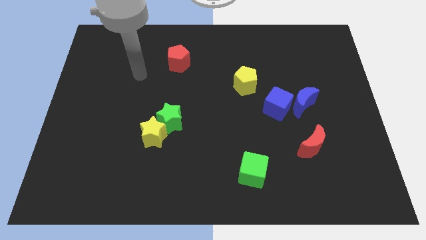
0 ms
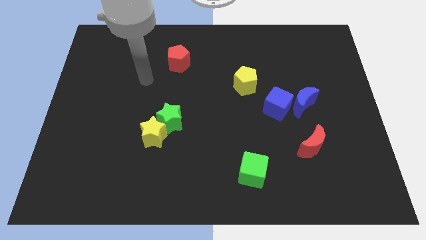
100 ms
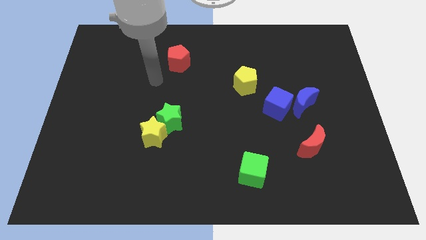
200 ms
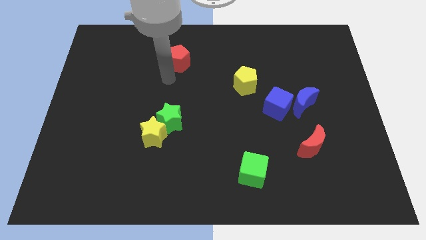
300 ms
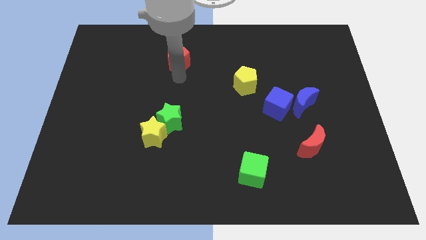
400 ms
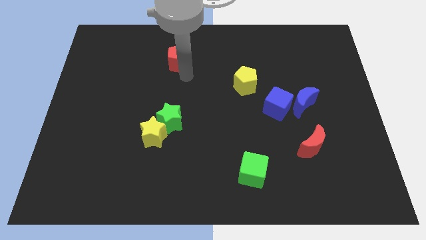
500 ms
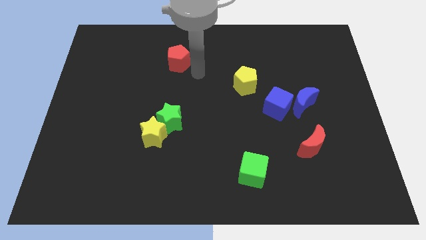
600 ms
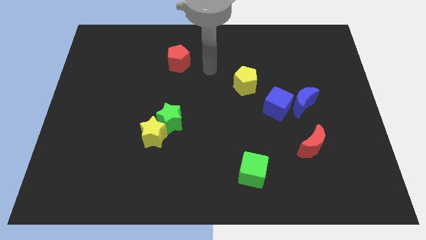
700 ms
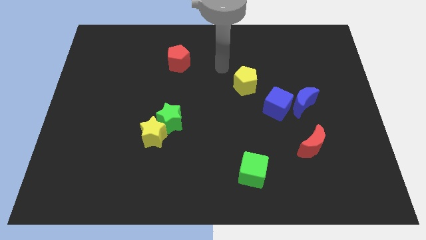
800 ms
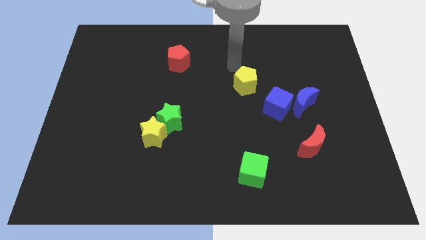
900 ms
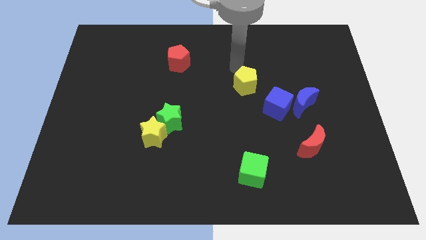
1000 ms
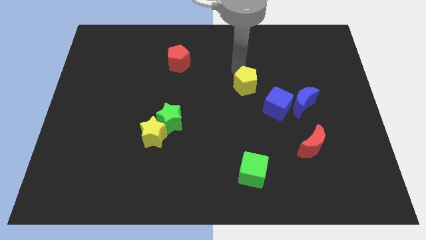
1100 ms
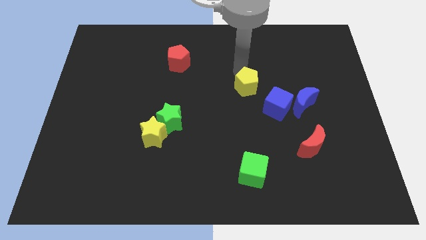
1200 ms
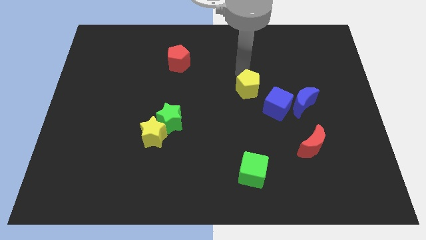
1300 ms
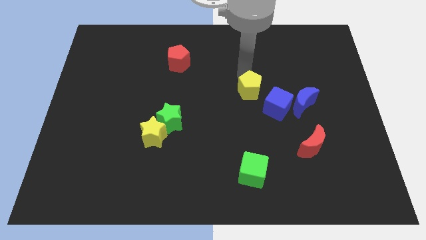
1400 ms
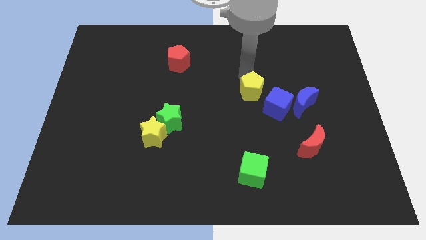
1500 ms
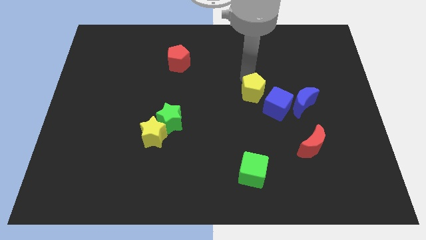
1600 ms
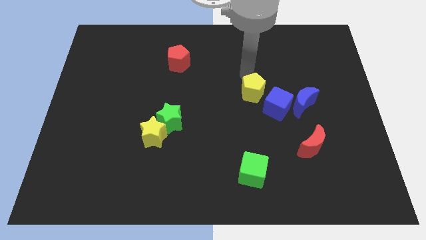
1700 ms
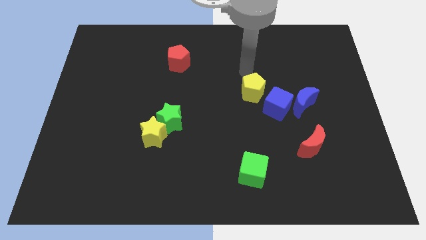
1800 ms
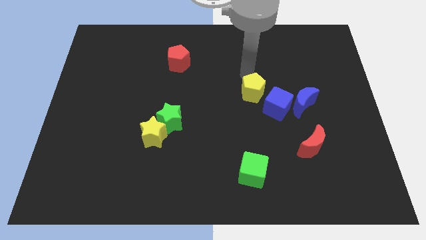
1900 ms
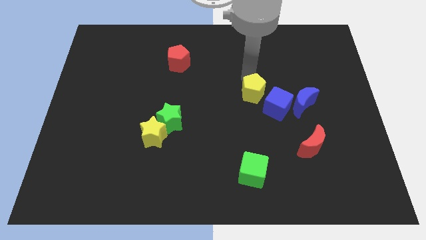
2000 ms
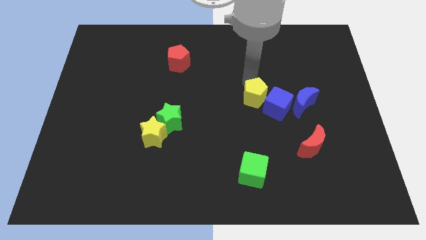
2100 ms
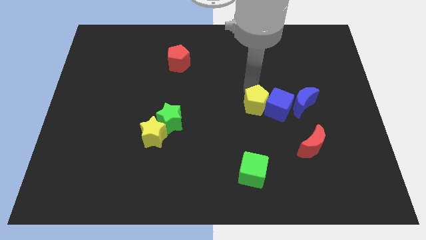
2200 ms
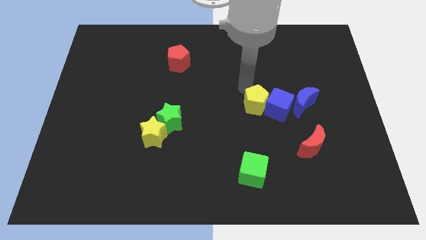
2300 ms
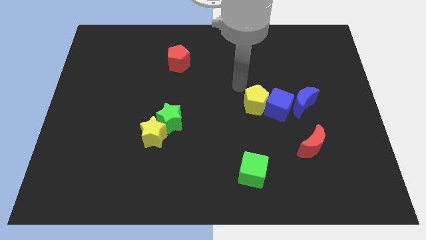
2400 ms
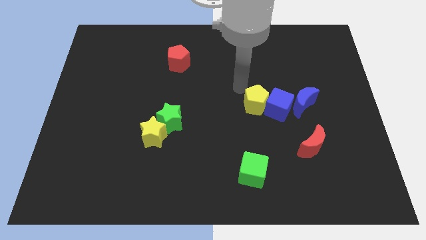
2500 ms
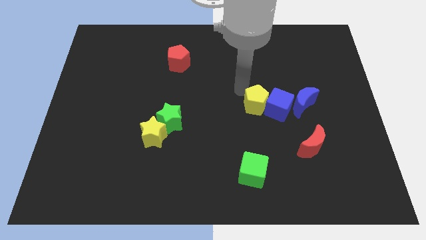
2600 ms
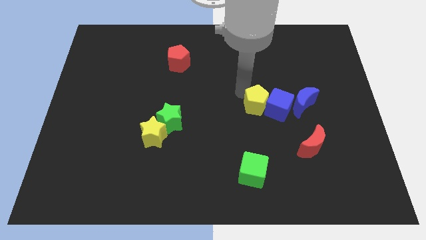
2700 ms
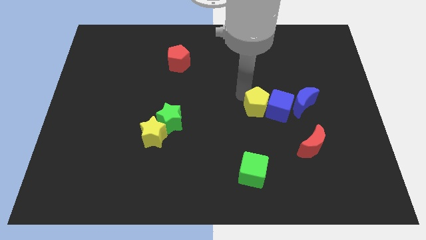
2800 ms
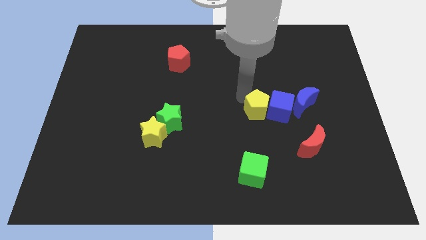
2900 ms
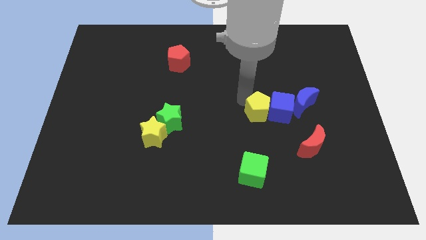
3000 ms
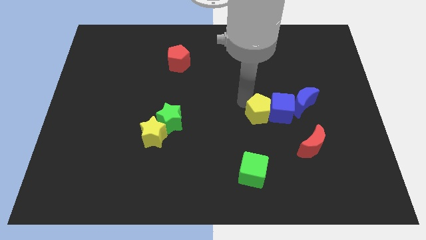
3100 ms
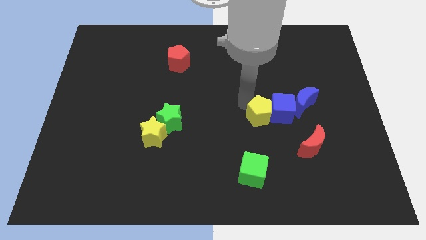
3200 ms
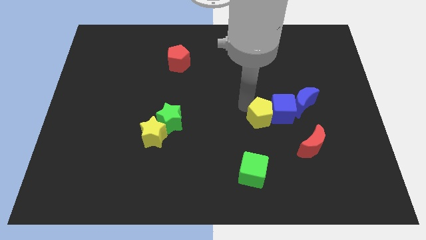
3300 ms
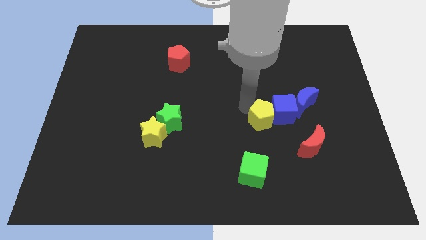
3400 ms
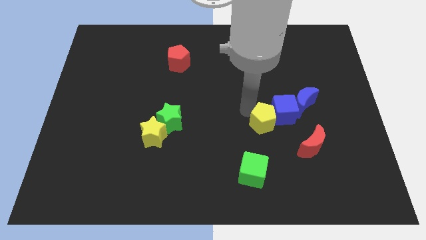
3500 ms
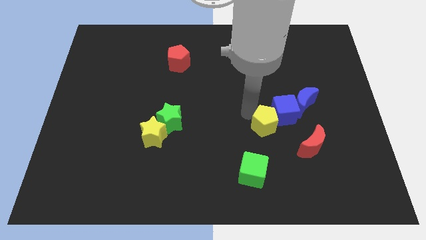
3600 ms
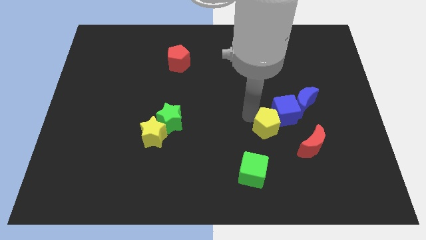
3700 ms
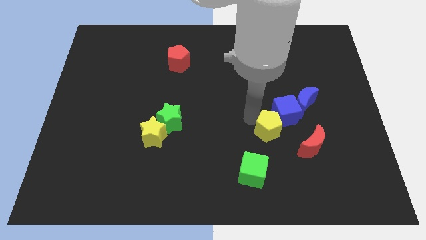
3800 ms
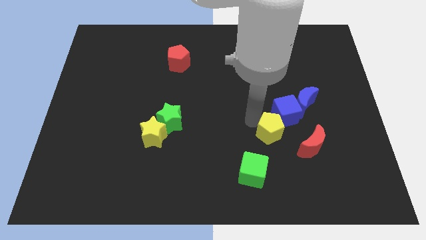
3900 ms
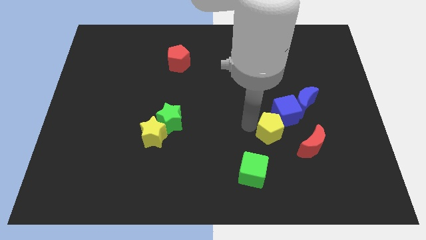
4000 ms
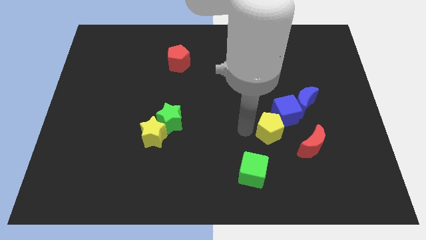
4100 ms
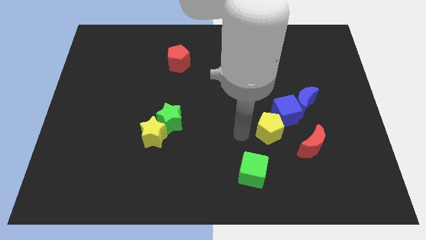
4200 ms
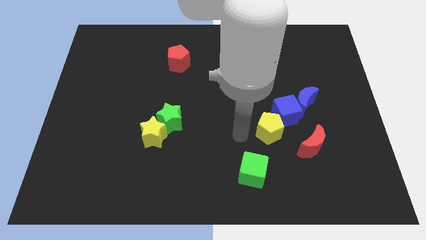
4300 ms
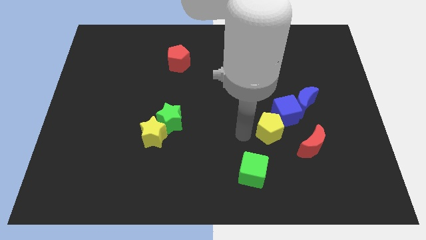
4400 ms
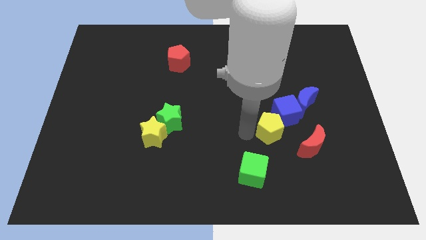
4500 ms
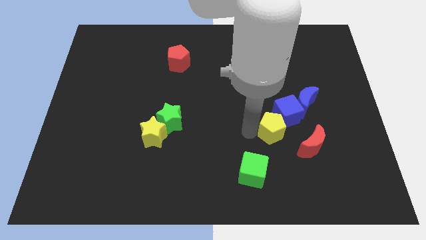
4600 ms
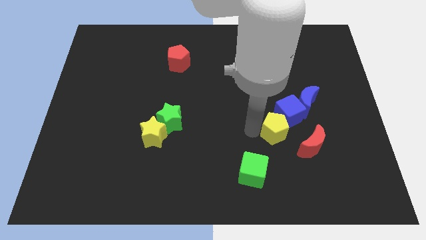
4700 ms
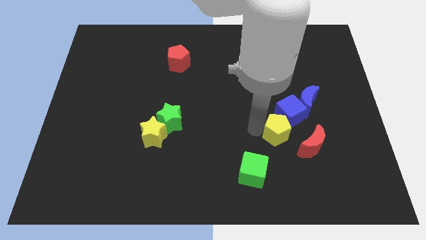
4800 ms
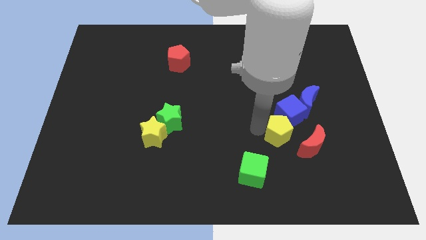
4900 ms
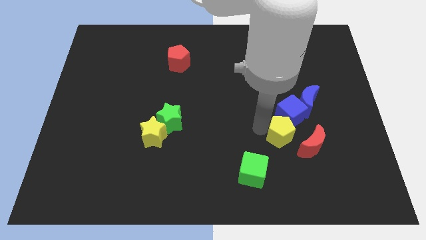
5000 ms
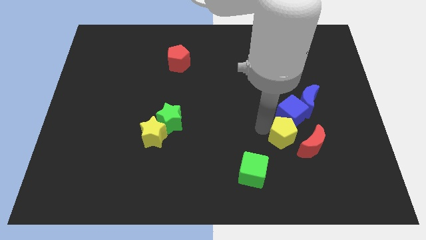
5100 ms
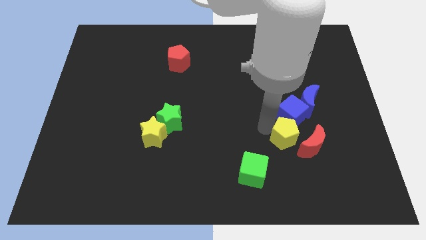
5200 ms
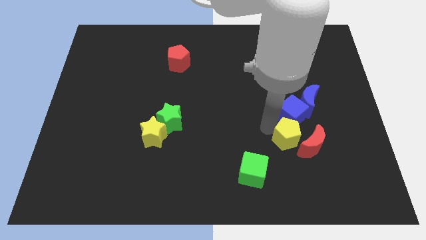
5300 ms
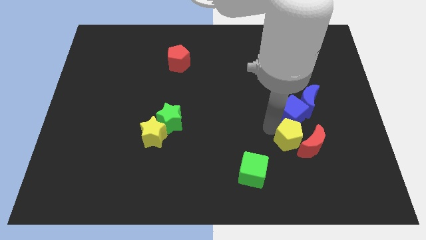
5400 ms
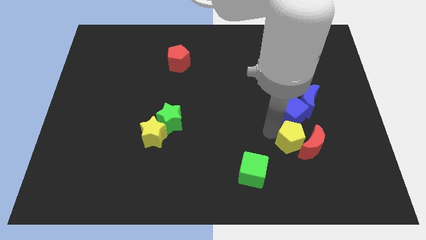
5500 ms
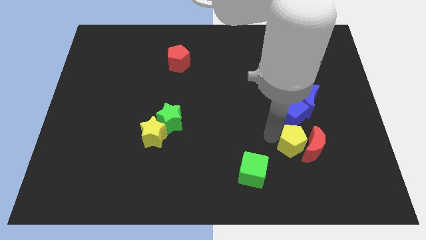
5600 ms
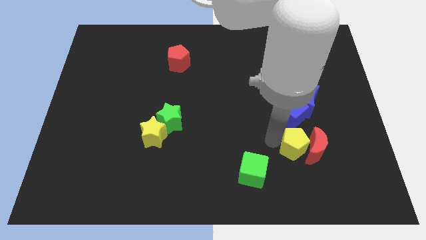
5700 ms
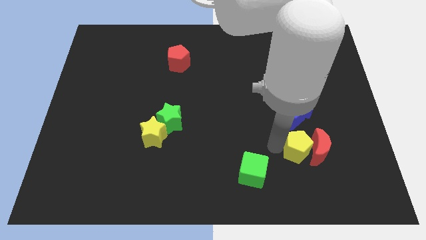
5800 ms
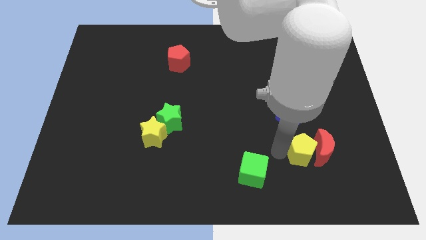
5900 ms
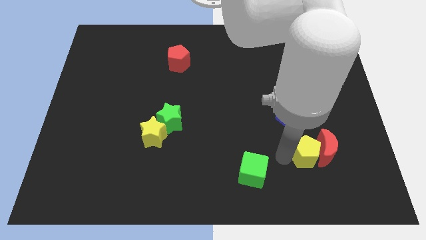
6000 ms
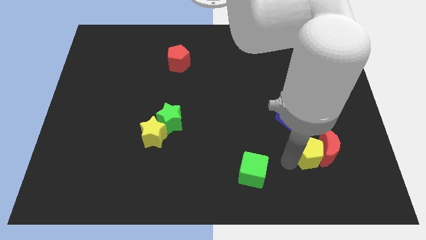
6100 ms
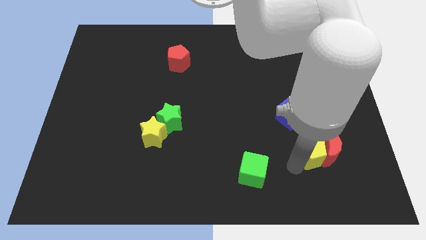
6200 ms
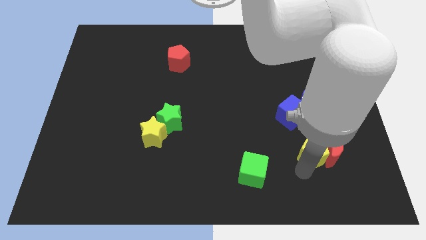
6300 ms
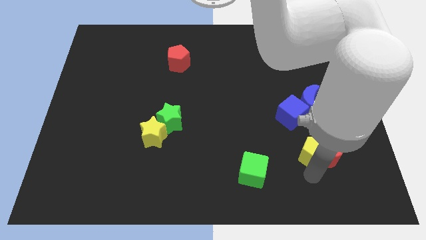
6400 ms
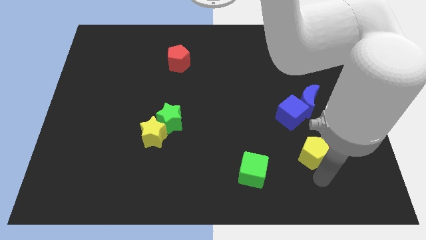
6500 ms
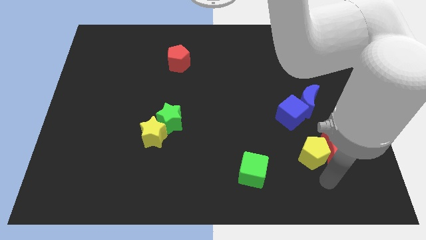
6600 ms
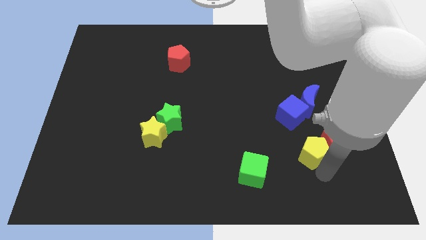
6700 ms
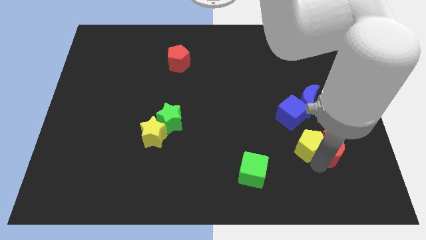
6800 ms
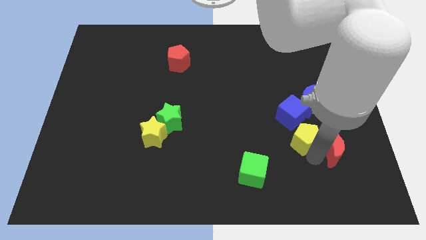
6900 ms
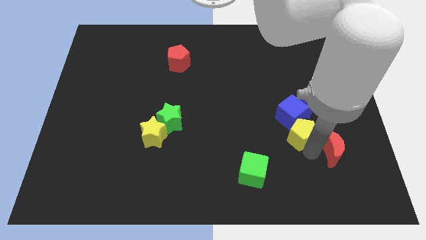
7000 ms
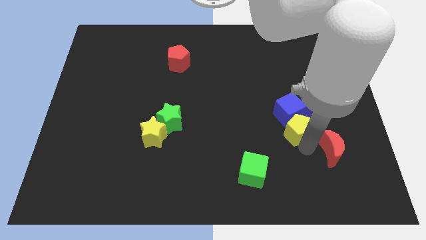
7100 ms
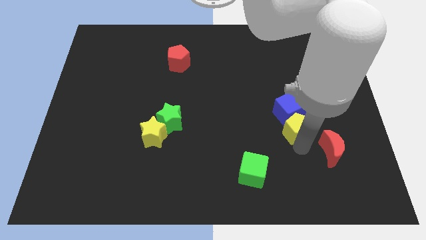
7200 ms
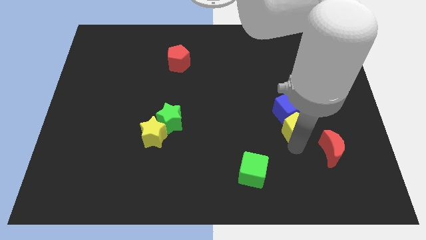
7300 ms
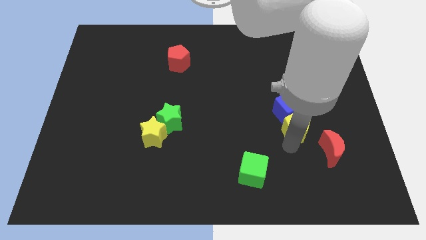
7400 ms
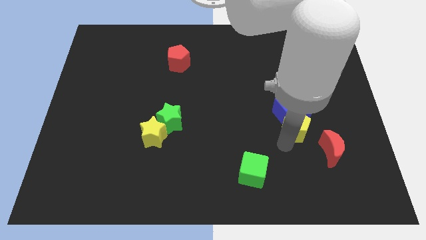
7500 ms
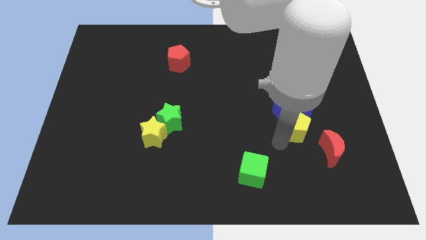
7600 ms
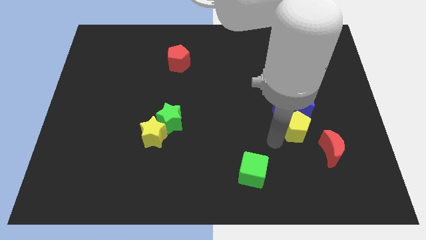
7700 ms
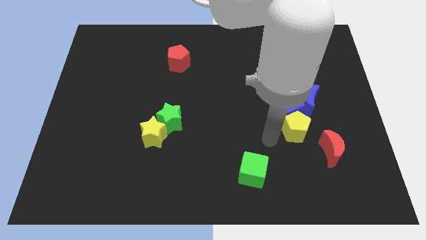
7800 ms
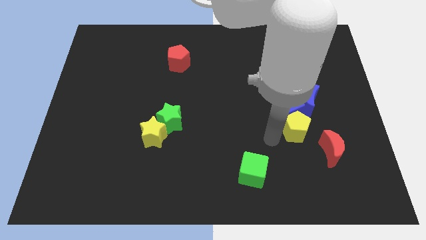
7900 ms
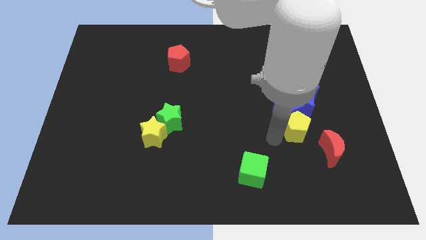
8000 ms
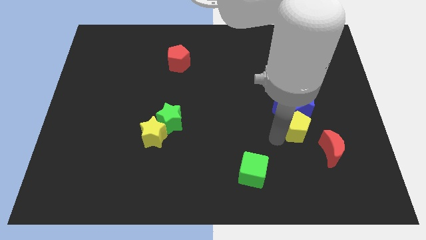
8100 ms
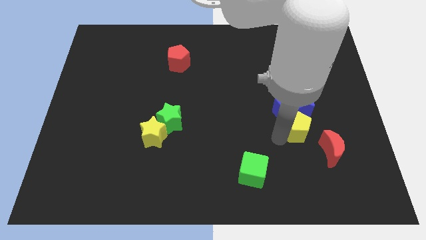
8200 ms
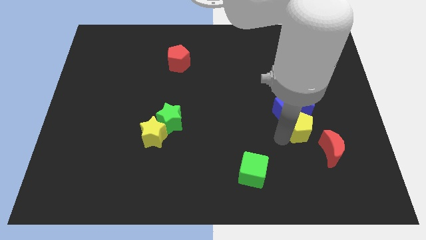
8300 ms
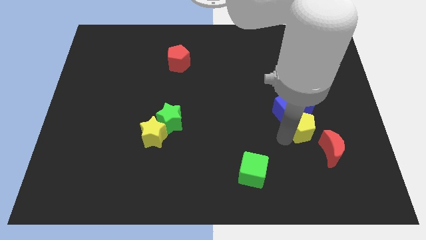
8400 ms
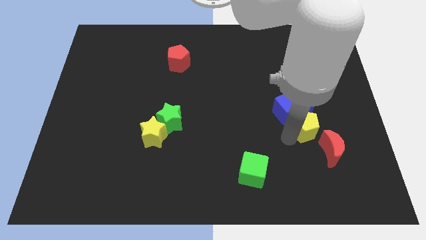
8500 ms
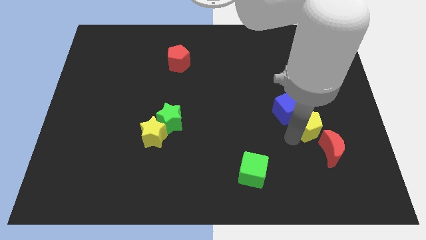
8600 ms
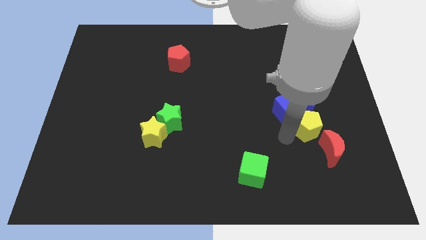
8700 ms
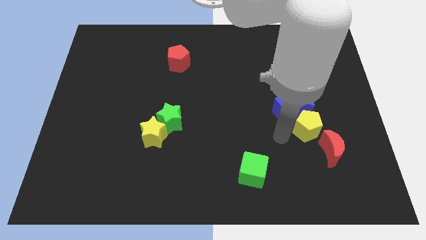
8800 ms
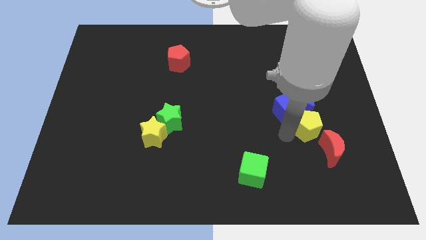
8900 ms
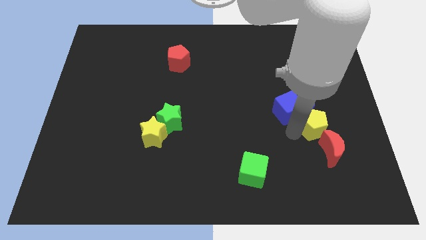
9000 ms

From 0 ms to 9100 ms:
move the yellow pentagon to the bottom right of the blue moon
